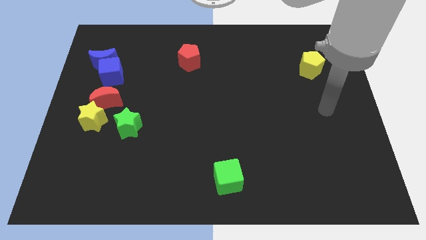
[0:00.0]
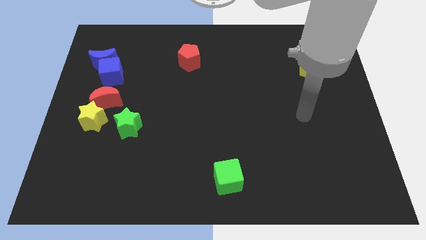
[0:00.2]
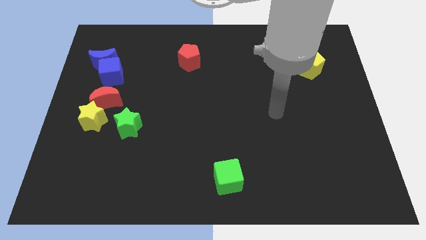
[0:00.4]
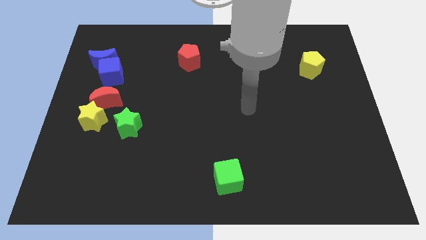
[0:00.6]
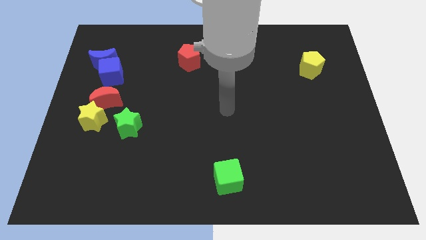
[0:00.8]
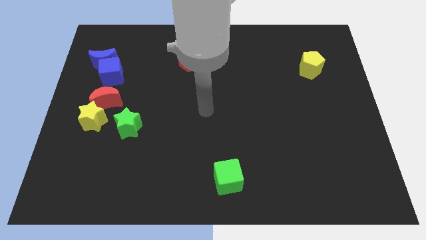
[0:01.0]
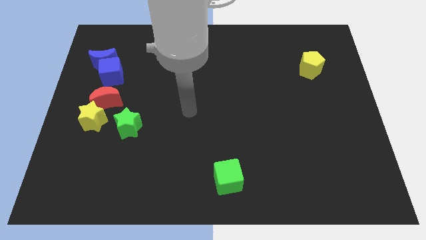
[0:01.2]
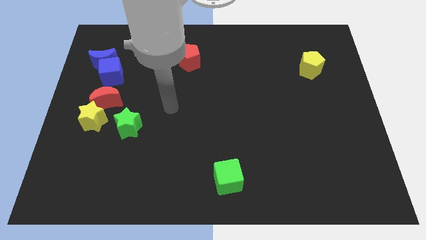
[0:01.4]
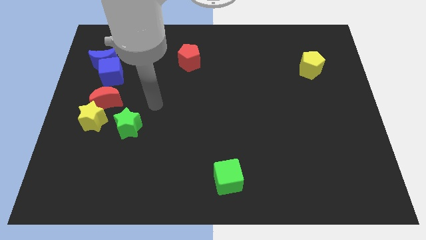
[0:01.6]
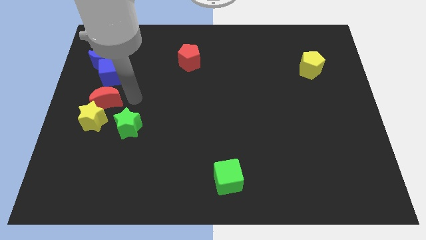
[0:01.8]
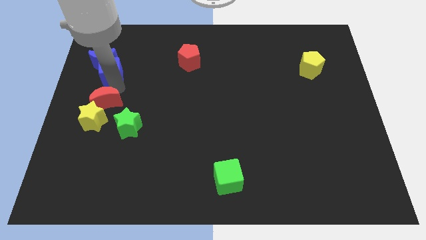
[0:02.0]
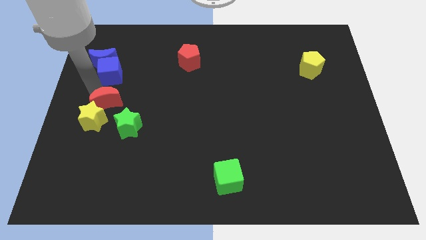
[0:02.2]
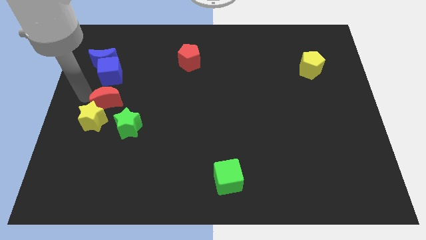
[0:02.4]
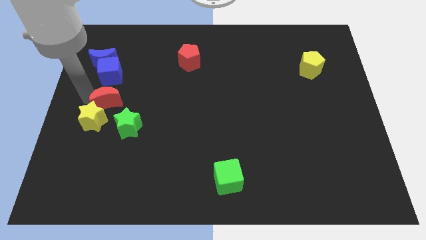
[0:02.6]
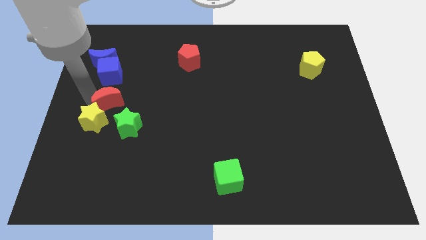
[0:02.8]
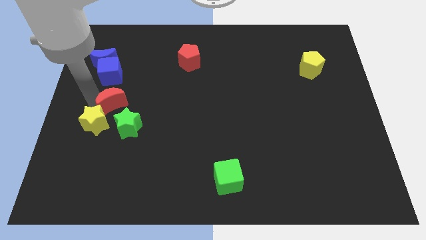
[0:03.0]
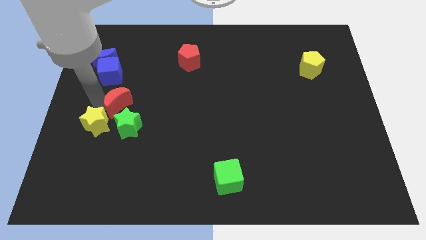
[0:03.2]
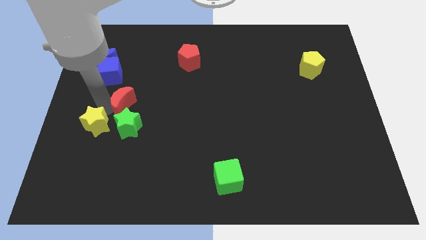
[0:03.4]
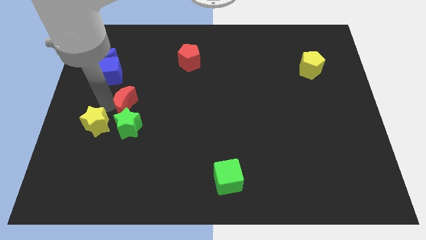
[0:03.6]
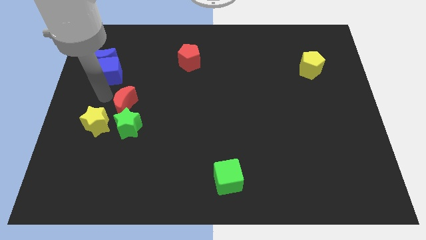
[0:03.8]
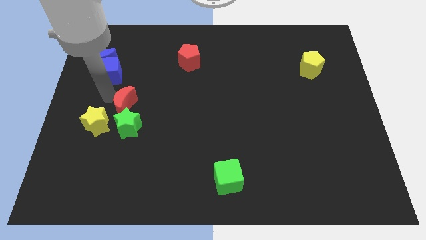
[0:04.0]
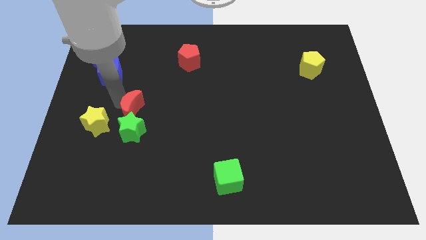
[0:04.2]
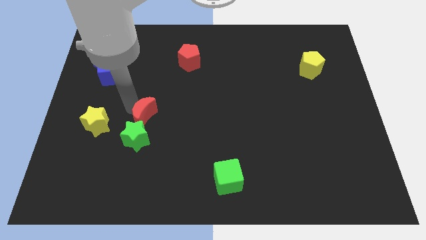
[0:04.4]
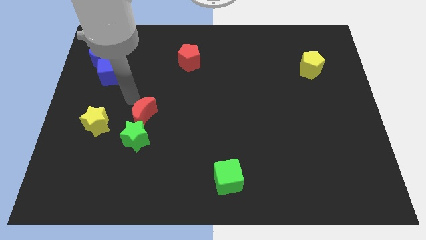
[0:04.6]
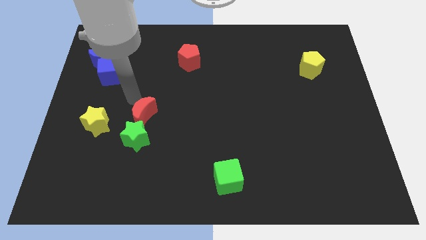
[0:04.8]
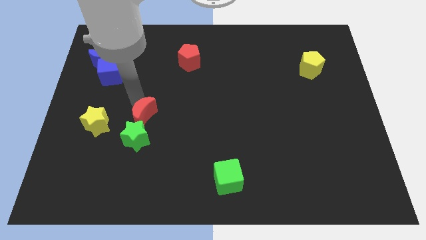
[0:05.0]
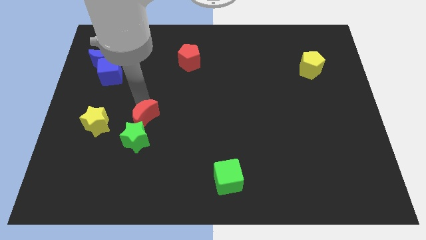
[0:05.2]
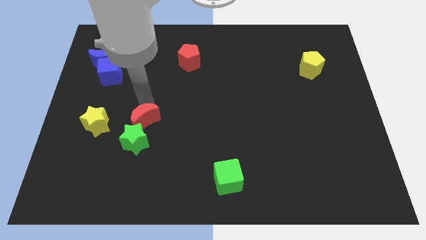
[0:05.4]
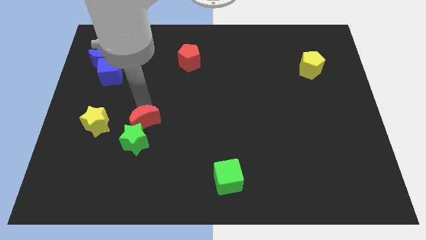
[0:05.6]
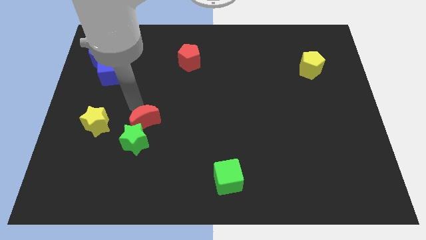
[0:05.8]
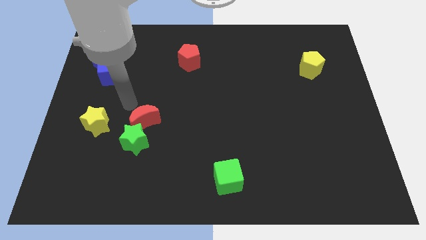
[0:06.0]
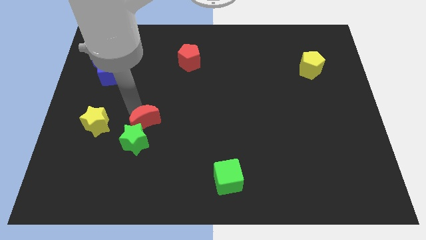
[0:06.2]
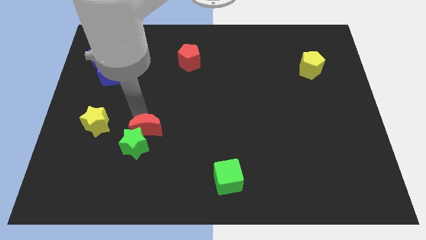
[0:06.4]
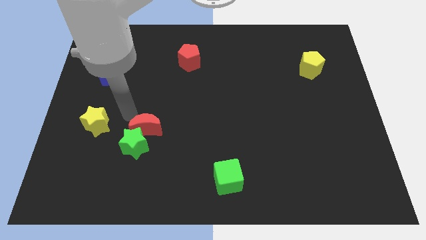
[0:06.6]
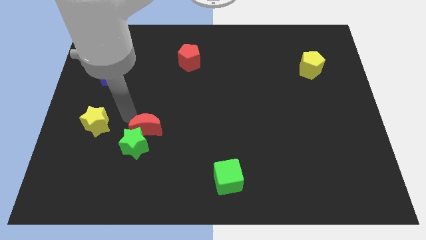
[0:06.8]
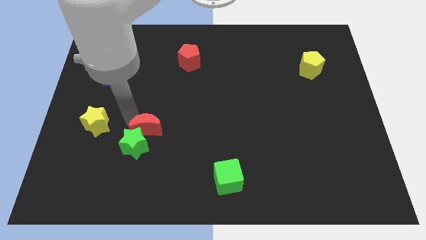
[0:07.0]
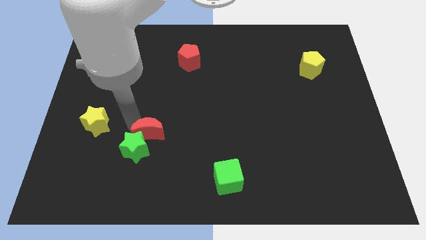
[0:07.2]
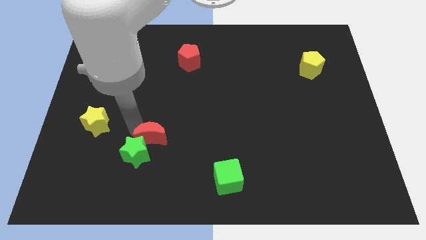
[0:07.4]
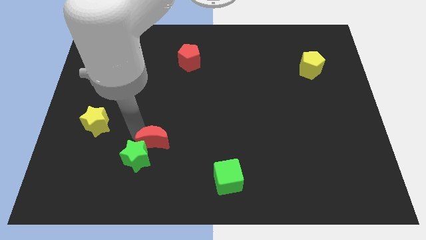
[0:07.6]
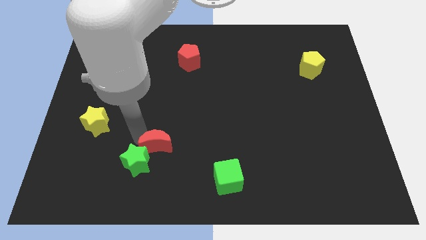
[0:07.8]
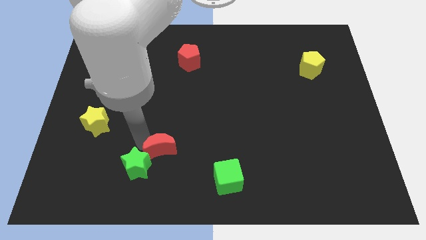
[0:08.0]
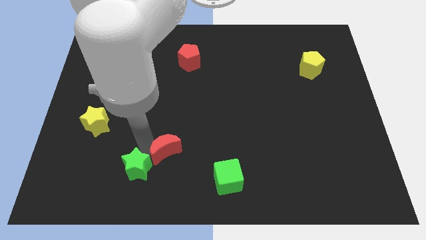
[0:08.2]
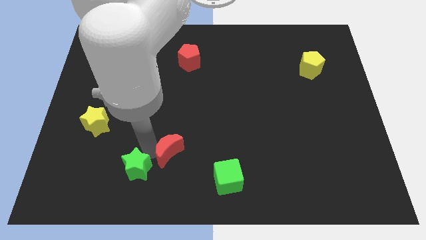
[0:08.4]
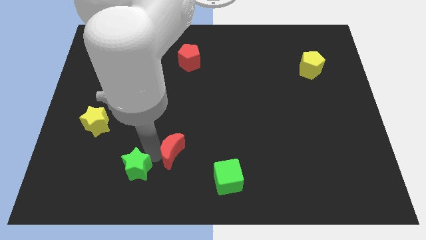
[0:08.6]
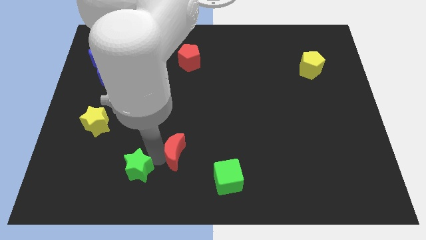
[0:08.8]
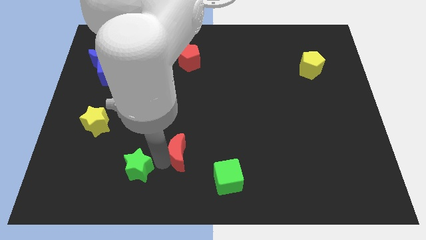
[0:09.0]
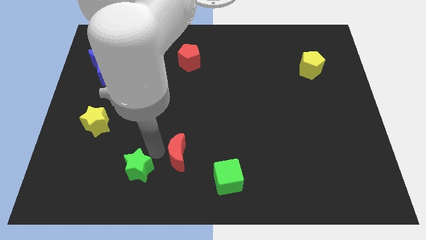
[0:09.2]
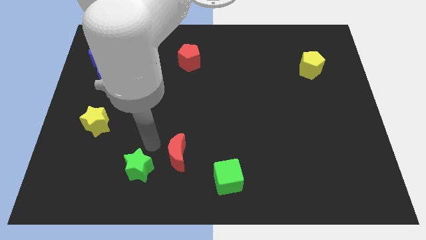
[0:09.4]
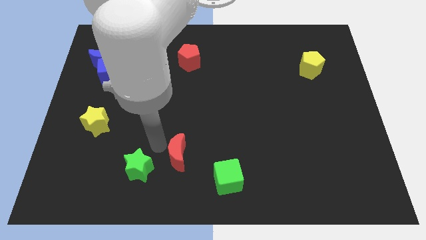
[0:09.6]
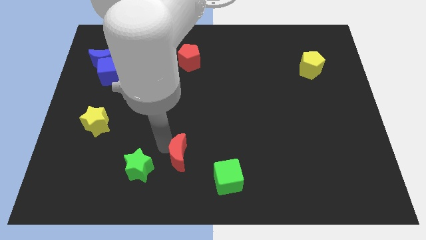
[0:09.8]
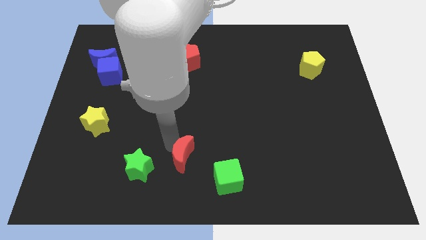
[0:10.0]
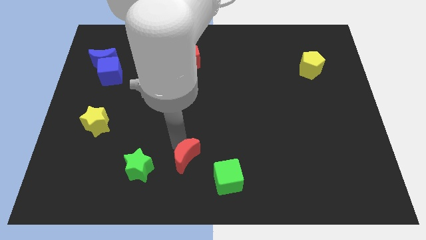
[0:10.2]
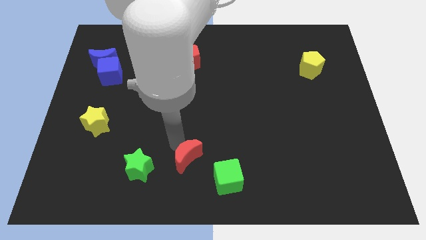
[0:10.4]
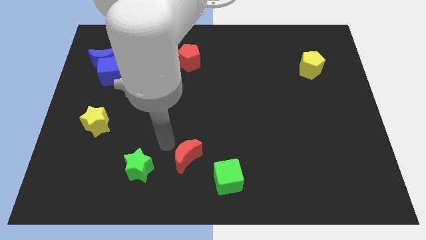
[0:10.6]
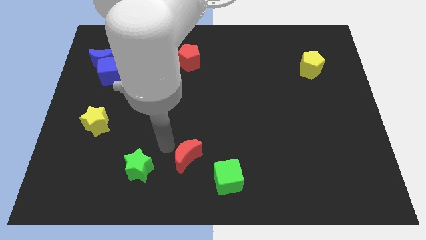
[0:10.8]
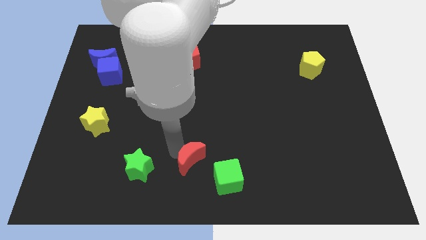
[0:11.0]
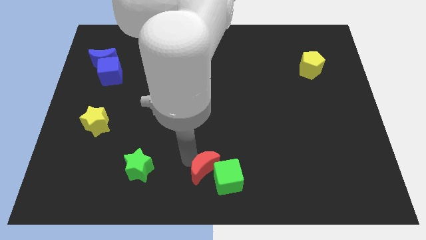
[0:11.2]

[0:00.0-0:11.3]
move the red moon next to the green cube

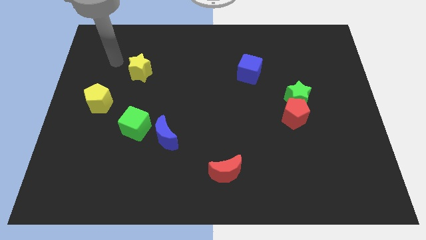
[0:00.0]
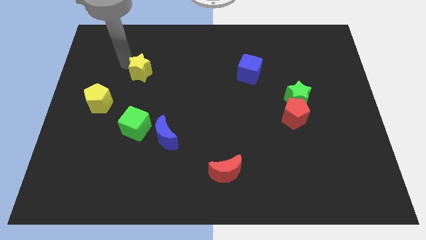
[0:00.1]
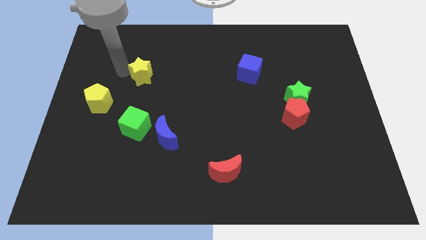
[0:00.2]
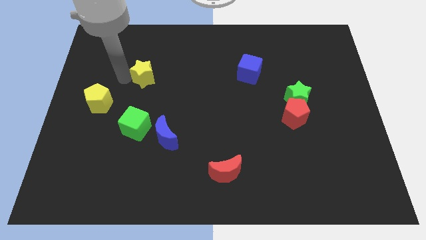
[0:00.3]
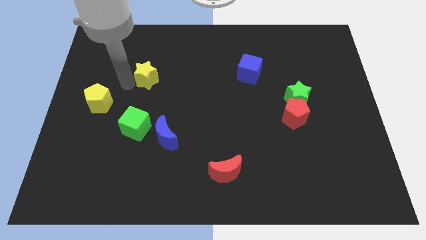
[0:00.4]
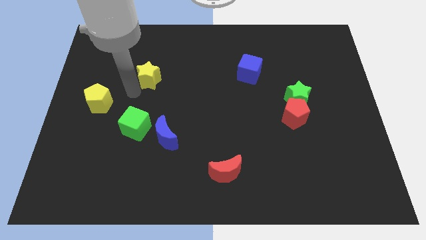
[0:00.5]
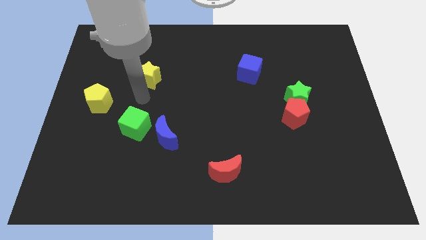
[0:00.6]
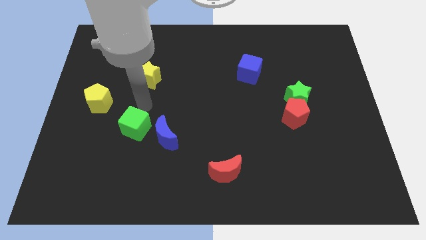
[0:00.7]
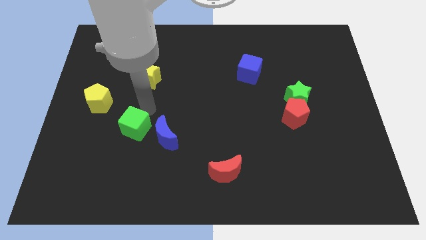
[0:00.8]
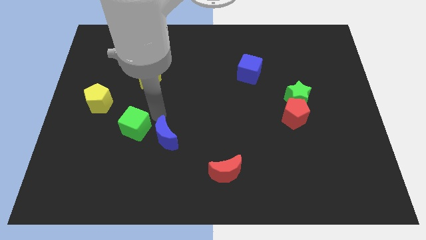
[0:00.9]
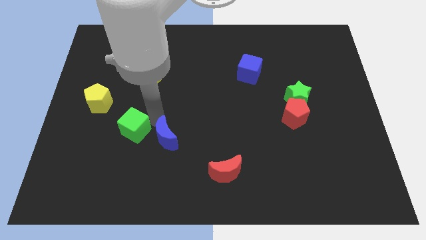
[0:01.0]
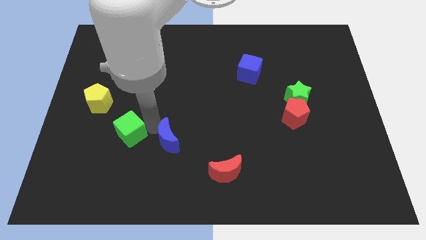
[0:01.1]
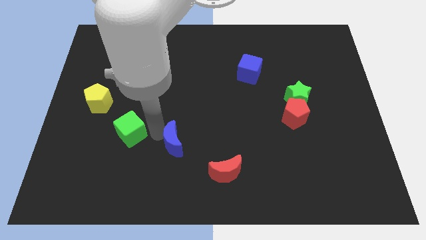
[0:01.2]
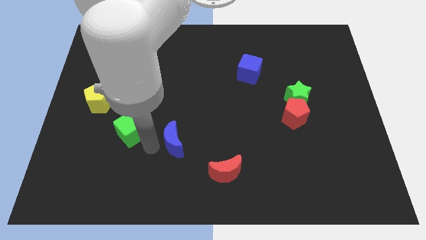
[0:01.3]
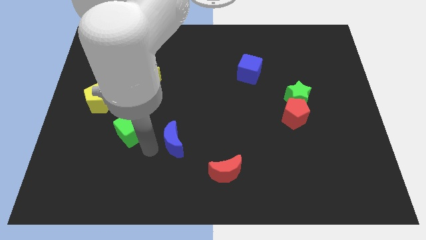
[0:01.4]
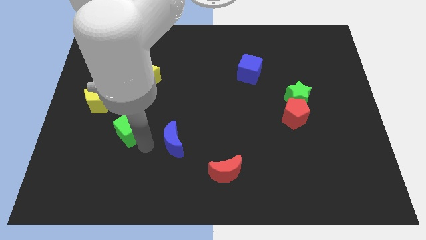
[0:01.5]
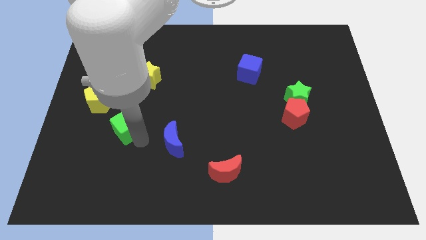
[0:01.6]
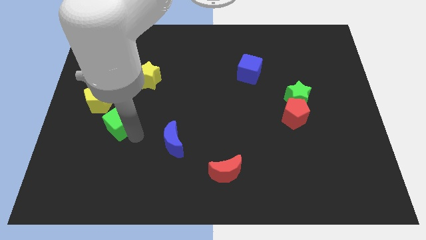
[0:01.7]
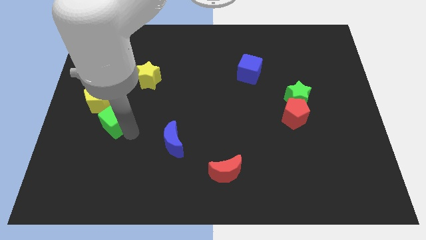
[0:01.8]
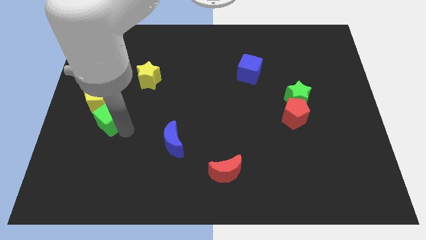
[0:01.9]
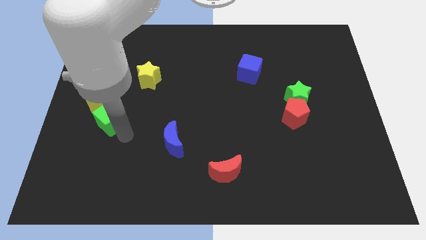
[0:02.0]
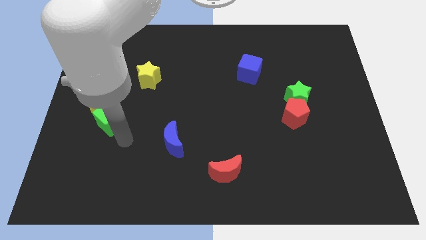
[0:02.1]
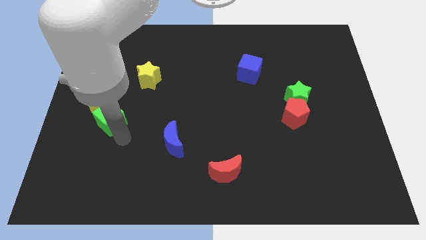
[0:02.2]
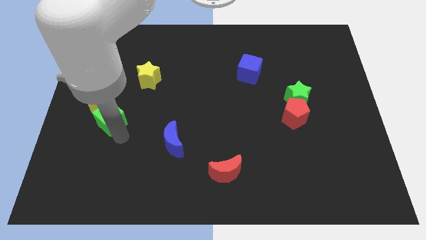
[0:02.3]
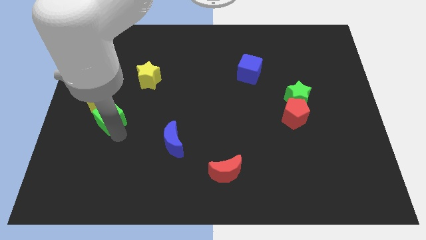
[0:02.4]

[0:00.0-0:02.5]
push the green cube towards the yellow pentagon
